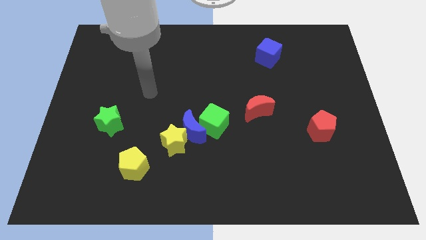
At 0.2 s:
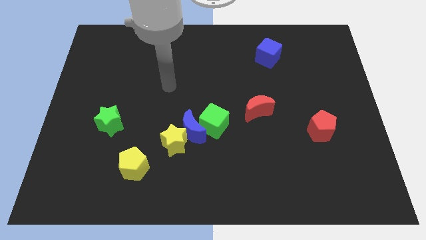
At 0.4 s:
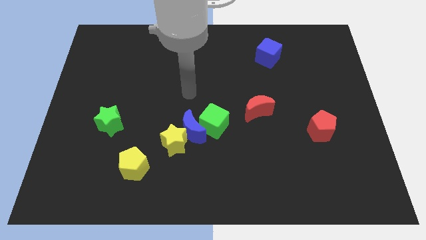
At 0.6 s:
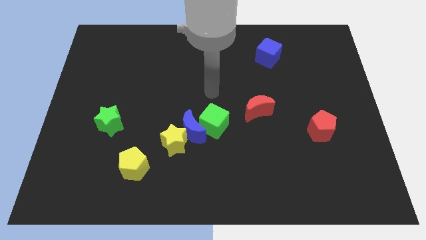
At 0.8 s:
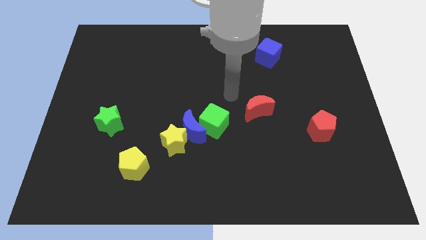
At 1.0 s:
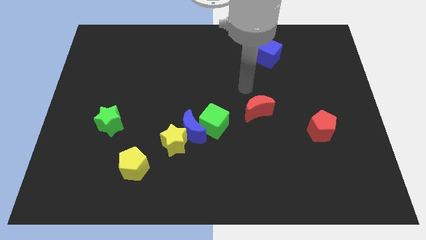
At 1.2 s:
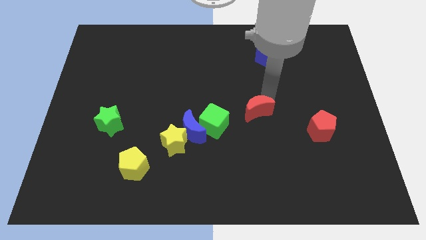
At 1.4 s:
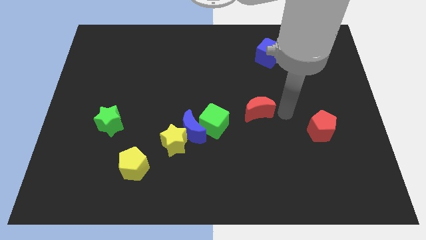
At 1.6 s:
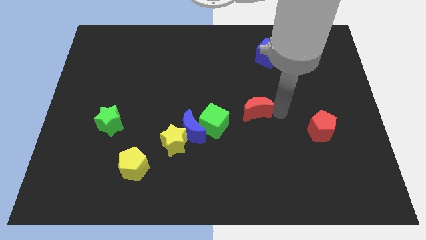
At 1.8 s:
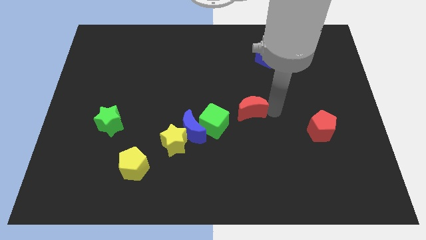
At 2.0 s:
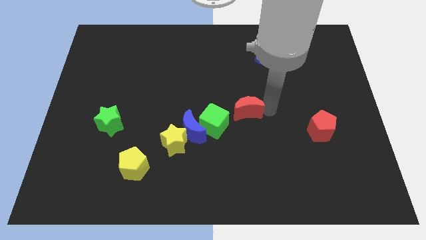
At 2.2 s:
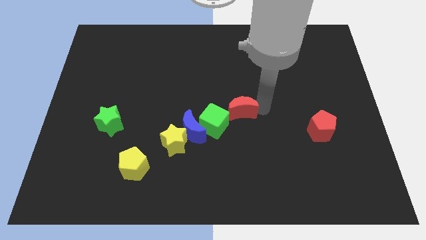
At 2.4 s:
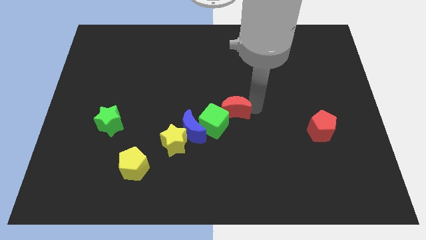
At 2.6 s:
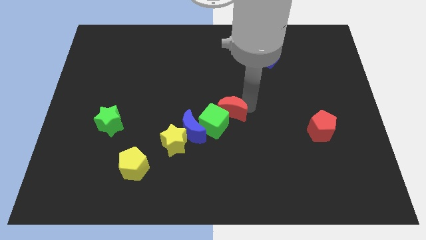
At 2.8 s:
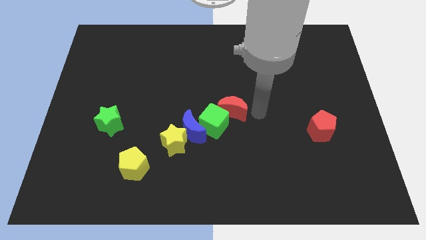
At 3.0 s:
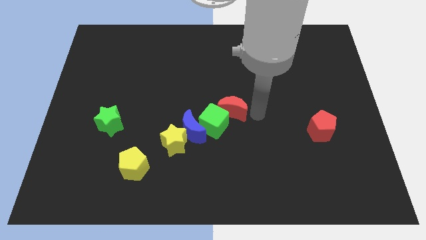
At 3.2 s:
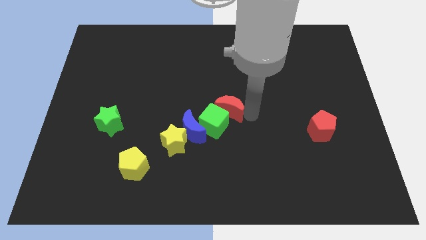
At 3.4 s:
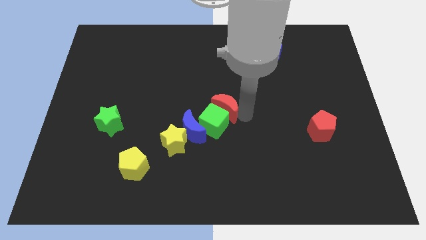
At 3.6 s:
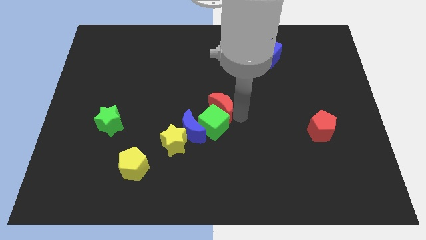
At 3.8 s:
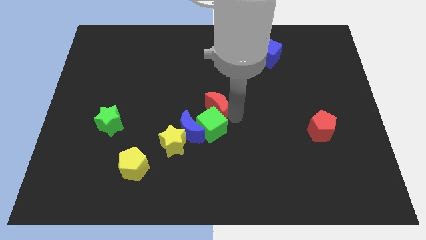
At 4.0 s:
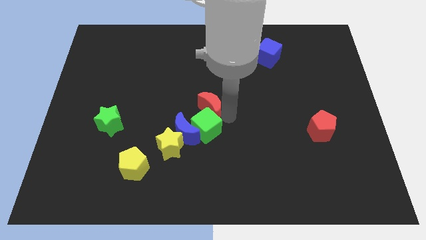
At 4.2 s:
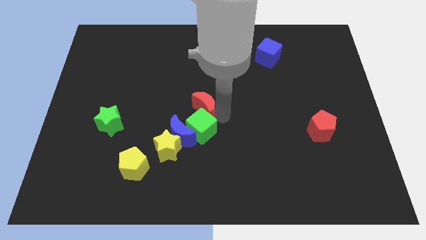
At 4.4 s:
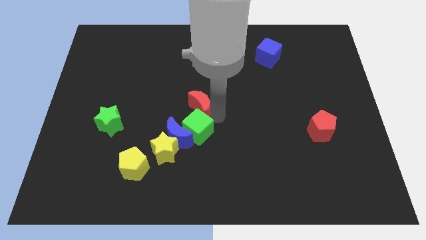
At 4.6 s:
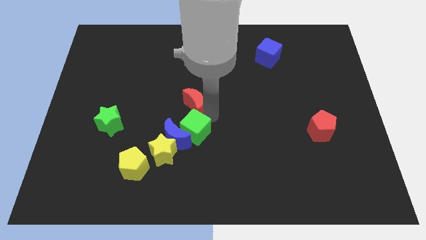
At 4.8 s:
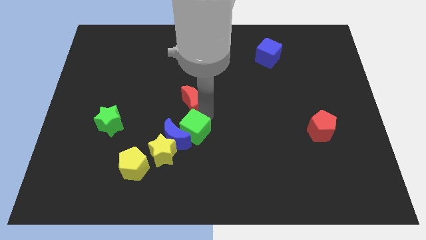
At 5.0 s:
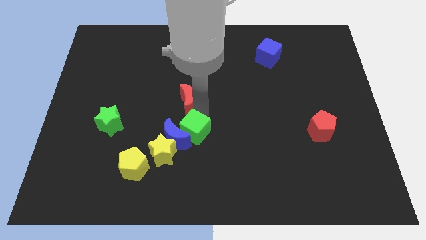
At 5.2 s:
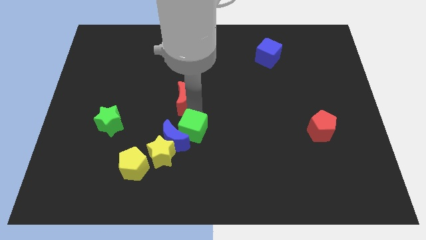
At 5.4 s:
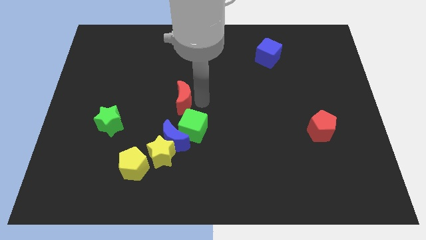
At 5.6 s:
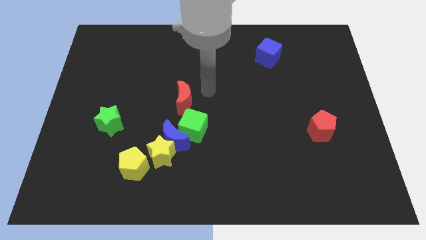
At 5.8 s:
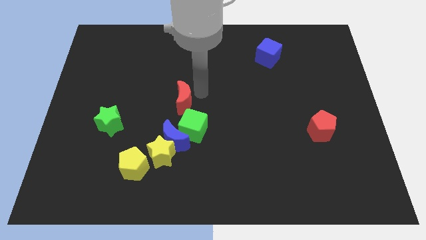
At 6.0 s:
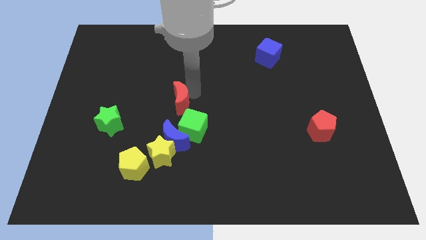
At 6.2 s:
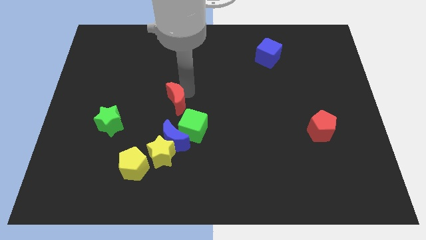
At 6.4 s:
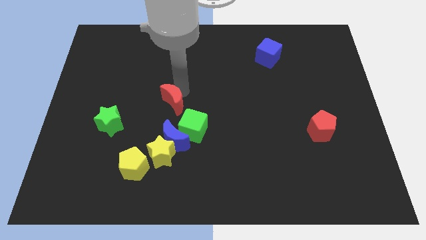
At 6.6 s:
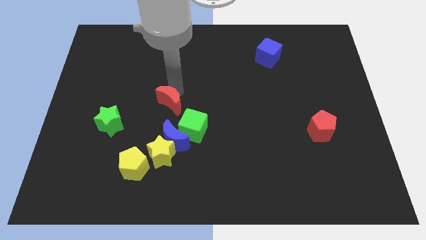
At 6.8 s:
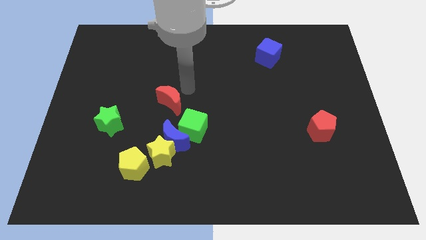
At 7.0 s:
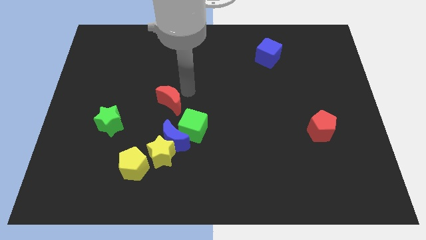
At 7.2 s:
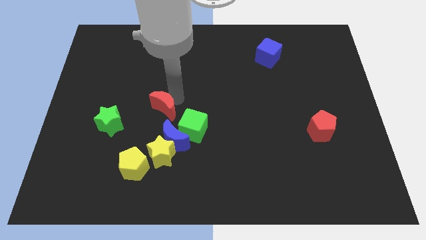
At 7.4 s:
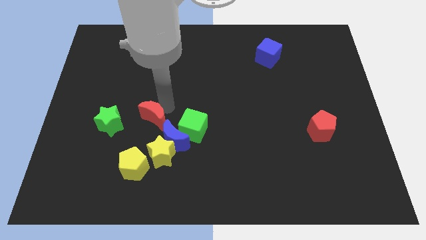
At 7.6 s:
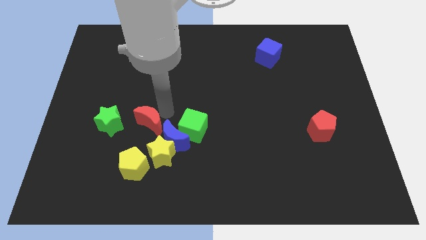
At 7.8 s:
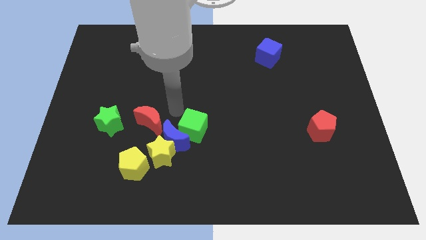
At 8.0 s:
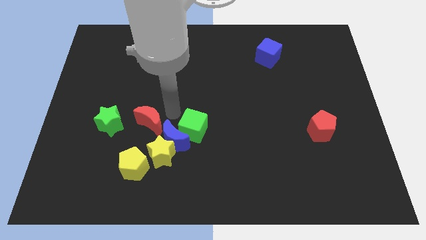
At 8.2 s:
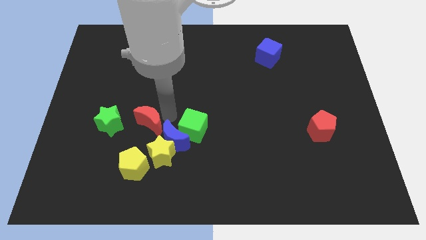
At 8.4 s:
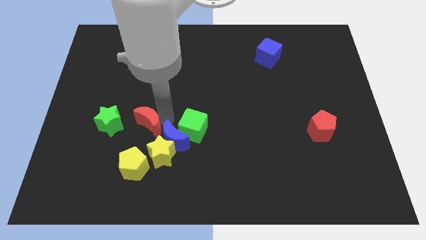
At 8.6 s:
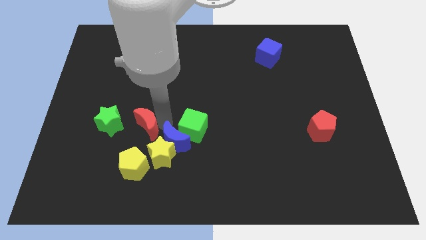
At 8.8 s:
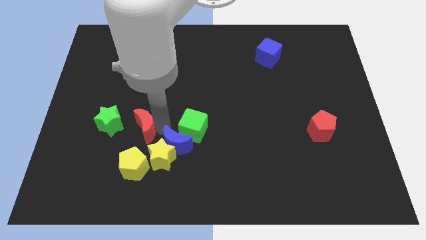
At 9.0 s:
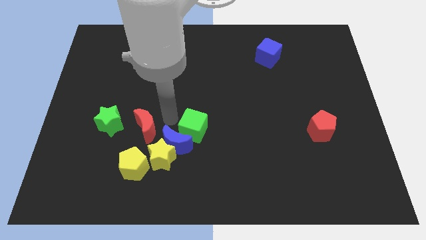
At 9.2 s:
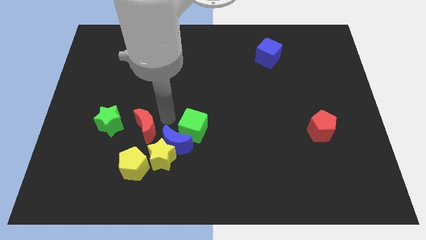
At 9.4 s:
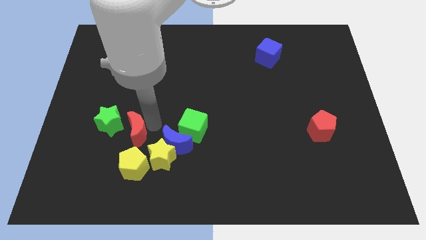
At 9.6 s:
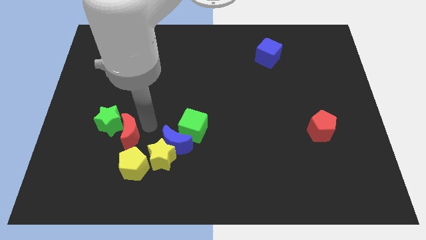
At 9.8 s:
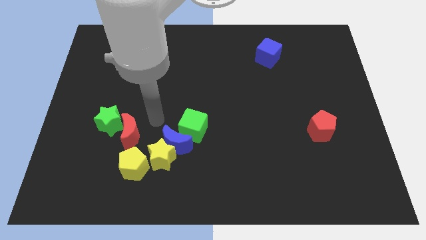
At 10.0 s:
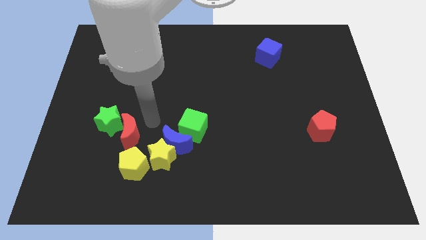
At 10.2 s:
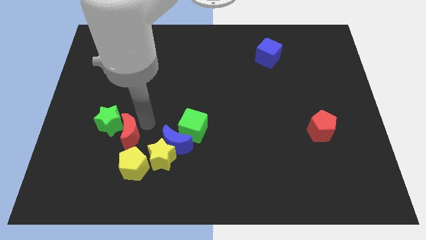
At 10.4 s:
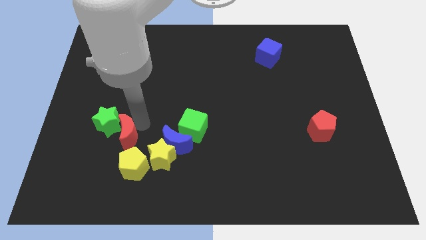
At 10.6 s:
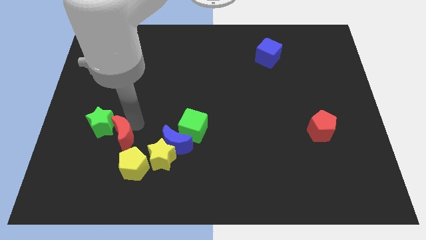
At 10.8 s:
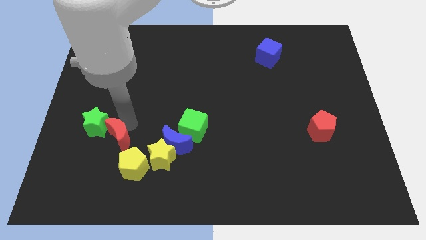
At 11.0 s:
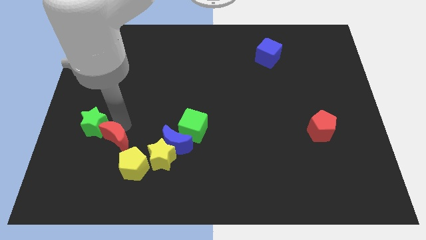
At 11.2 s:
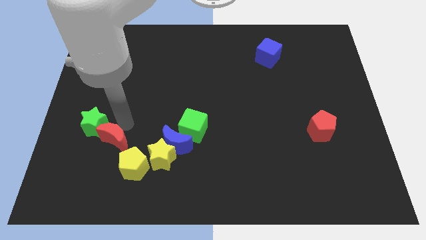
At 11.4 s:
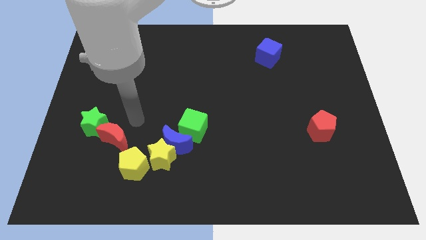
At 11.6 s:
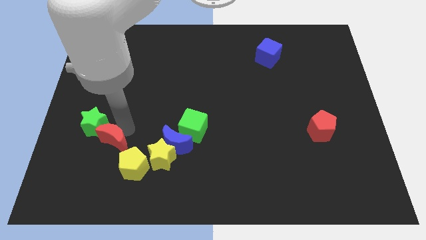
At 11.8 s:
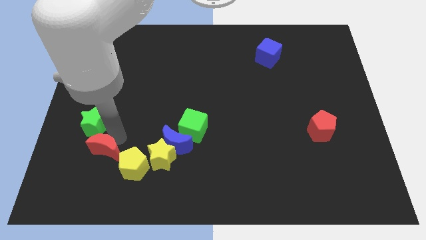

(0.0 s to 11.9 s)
push the red moon to the left of the yellow pentagon

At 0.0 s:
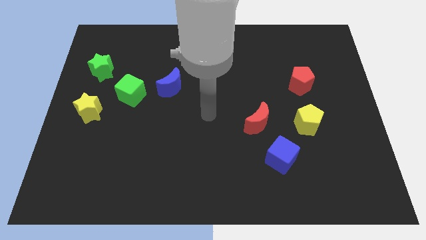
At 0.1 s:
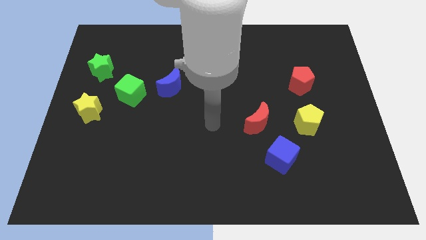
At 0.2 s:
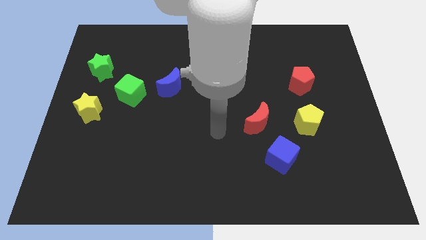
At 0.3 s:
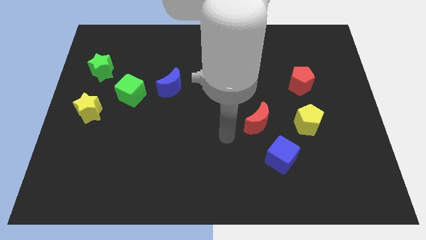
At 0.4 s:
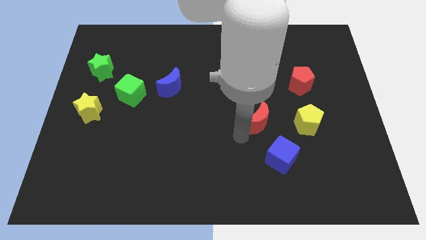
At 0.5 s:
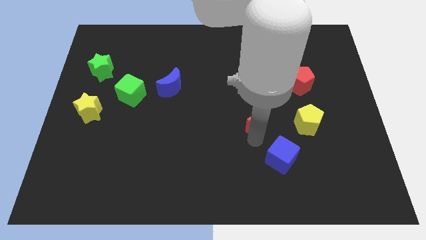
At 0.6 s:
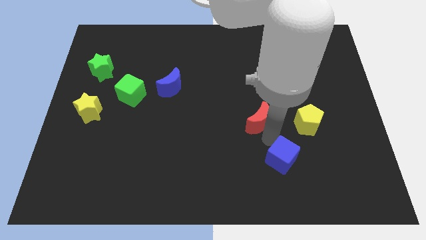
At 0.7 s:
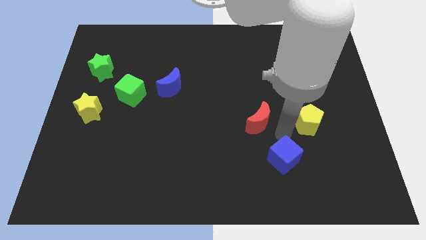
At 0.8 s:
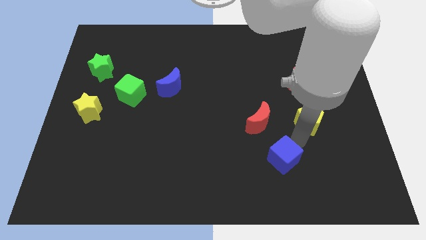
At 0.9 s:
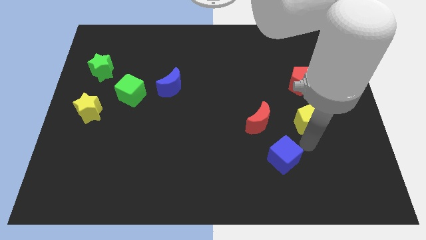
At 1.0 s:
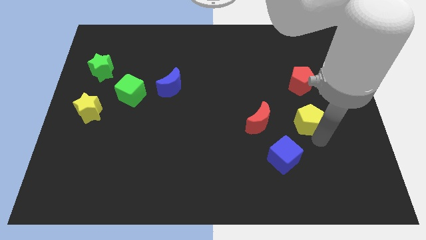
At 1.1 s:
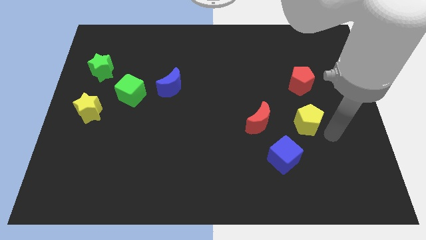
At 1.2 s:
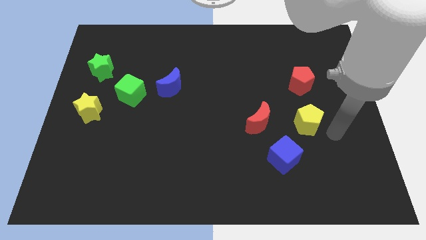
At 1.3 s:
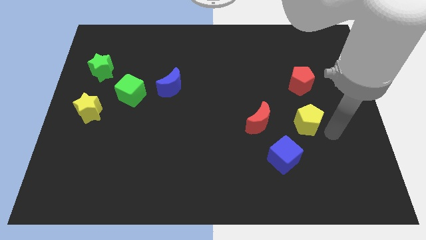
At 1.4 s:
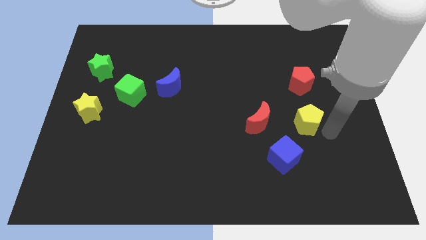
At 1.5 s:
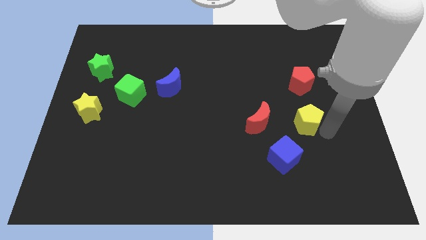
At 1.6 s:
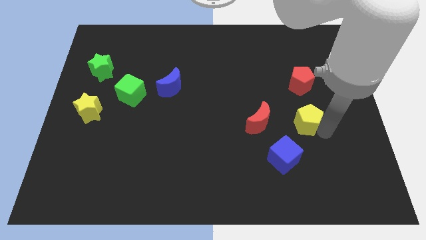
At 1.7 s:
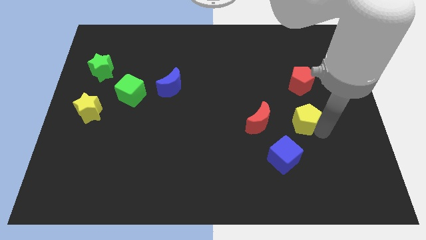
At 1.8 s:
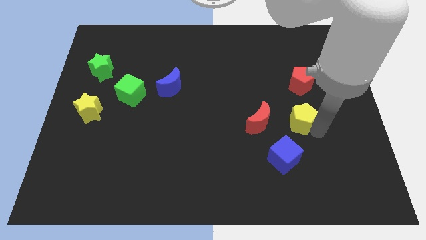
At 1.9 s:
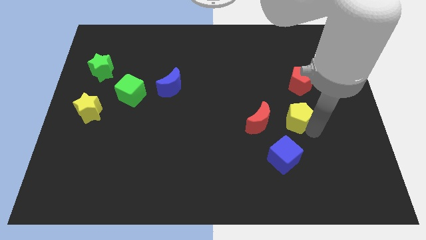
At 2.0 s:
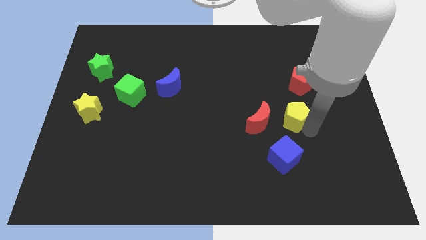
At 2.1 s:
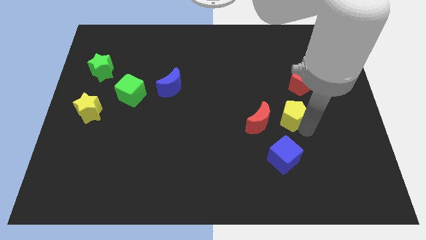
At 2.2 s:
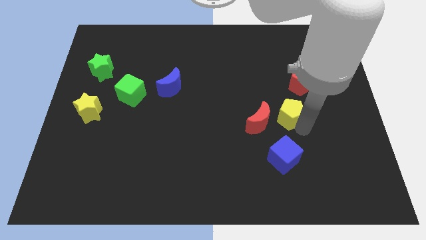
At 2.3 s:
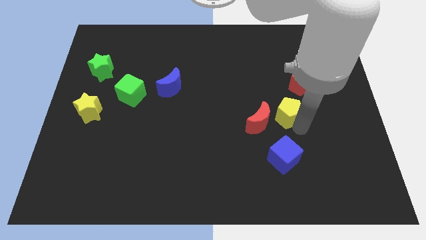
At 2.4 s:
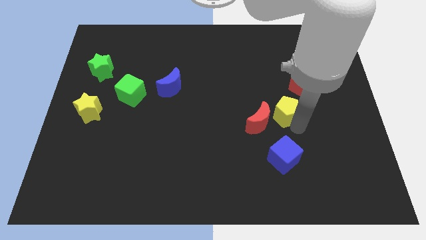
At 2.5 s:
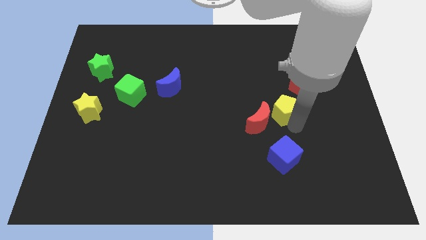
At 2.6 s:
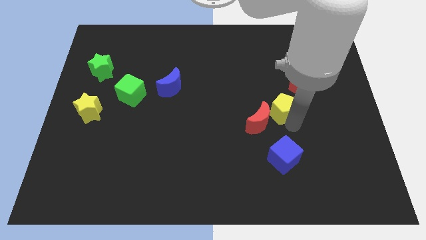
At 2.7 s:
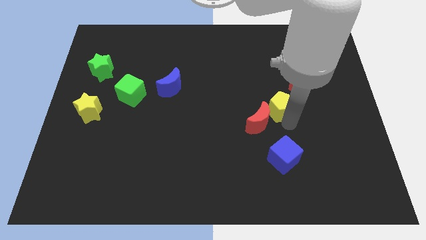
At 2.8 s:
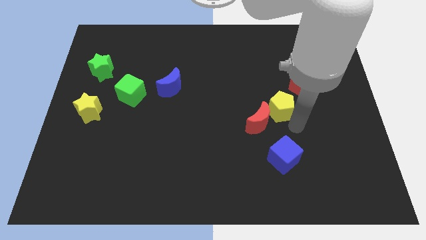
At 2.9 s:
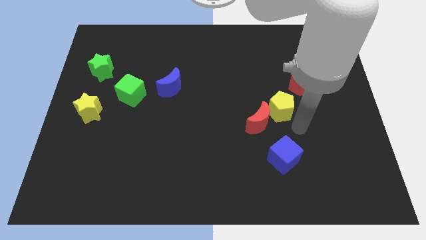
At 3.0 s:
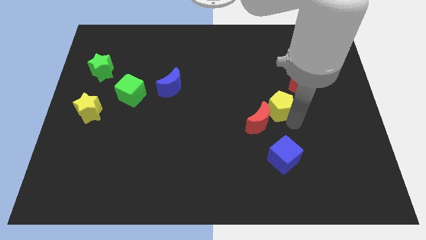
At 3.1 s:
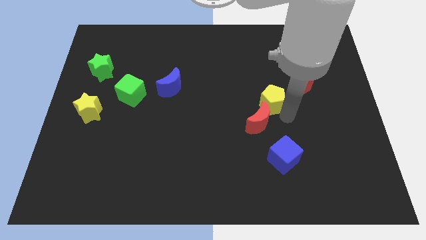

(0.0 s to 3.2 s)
put the yellow pentagon above the red moon
